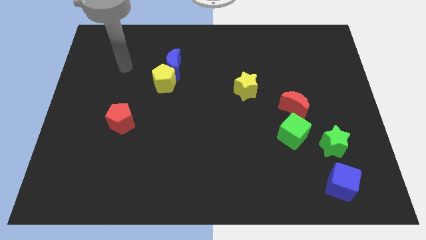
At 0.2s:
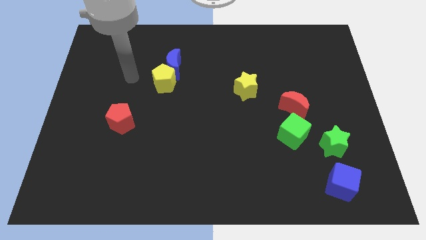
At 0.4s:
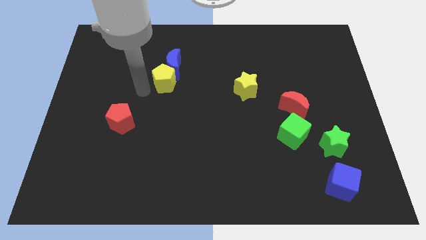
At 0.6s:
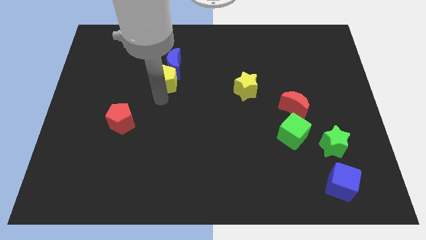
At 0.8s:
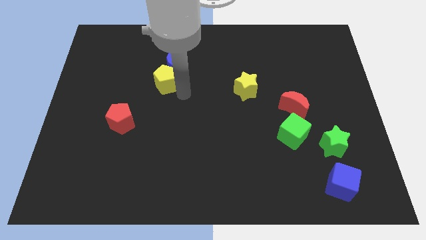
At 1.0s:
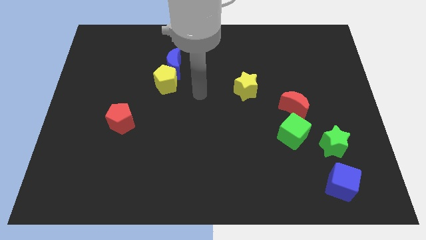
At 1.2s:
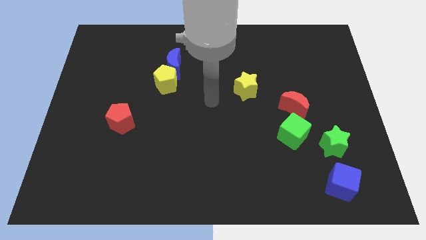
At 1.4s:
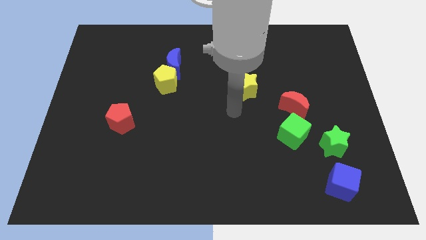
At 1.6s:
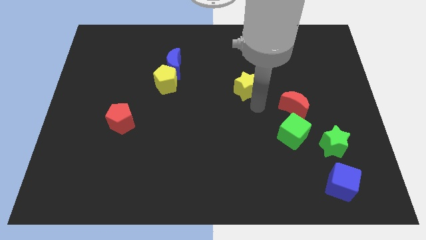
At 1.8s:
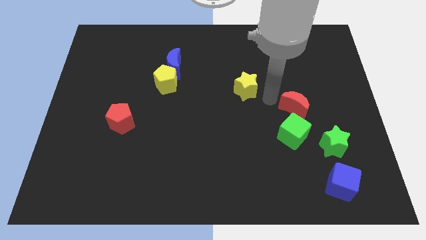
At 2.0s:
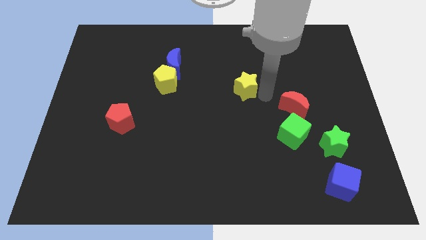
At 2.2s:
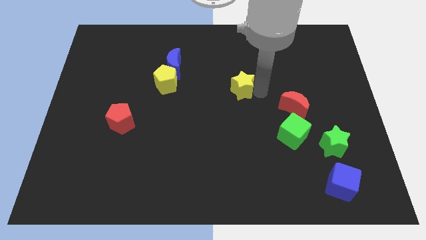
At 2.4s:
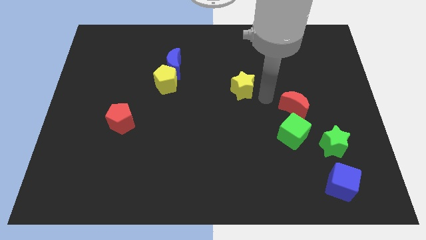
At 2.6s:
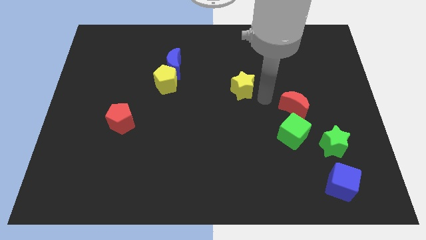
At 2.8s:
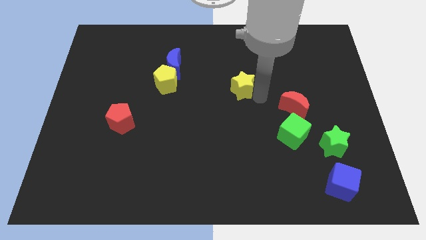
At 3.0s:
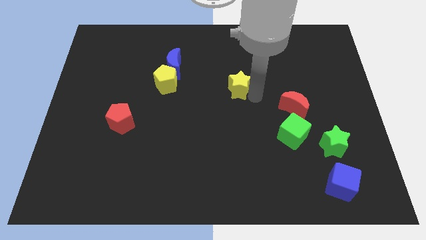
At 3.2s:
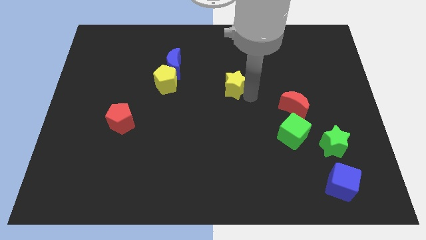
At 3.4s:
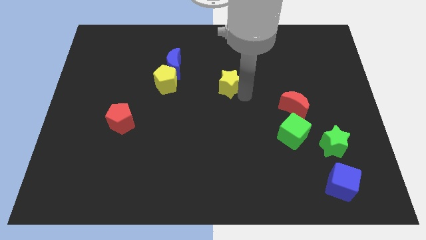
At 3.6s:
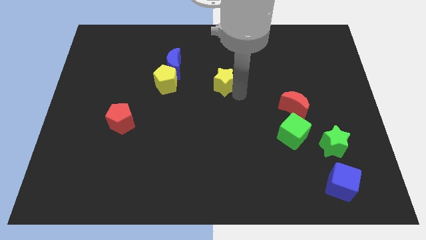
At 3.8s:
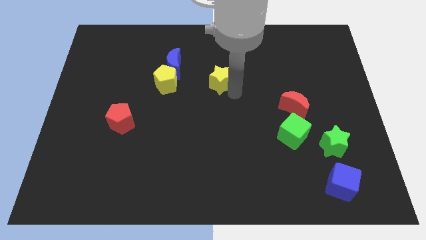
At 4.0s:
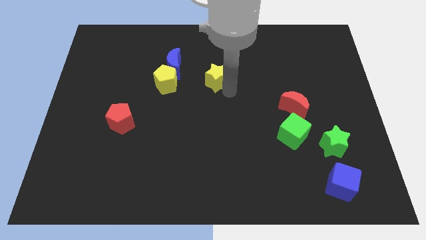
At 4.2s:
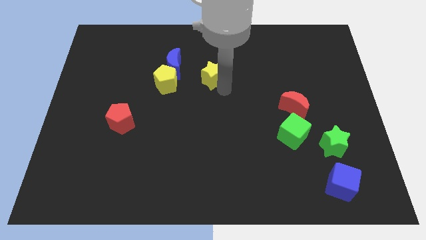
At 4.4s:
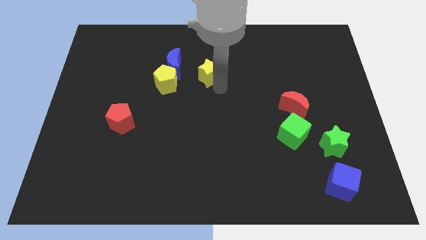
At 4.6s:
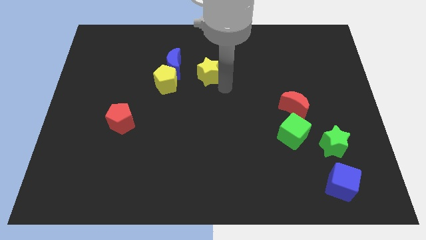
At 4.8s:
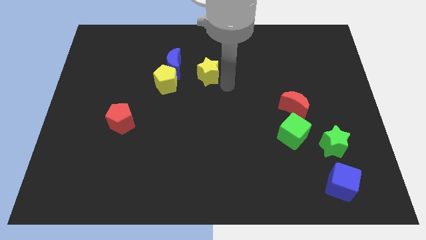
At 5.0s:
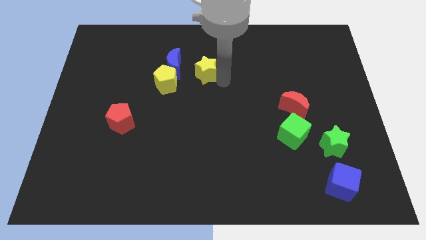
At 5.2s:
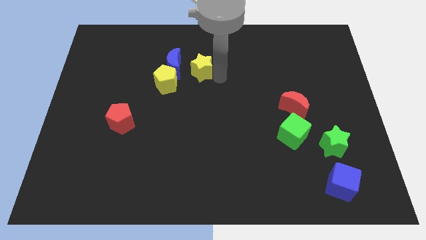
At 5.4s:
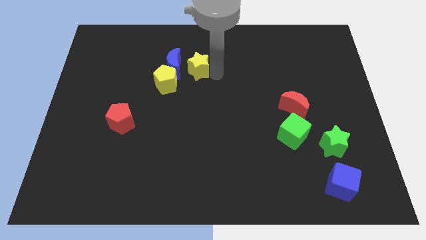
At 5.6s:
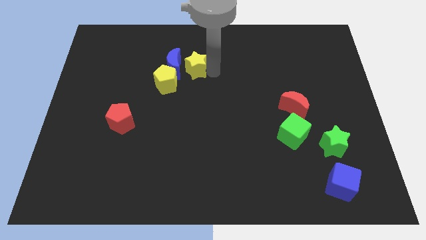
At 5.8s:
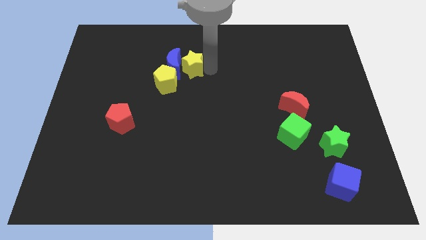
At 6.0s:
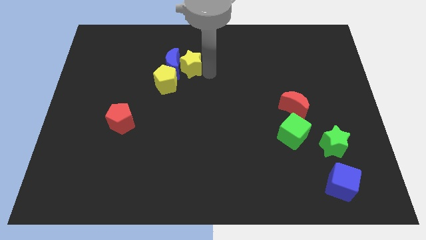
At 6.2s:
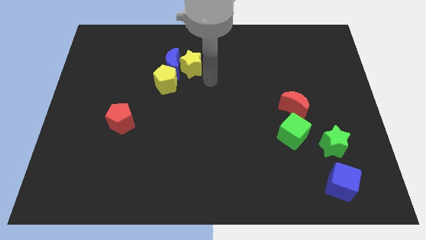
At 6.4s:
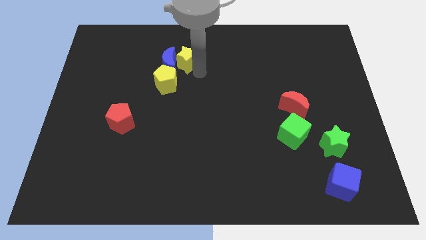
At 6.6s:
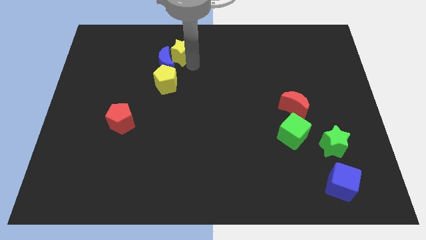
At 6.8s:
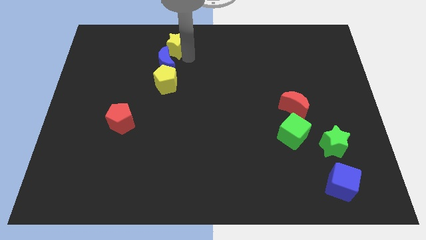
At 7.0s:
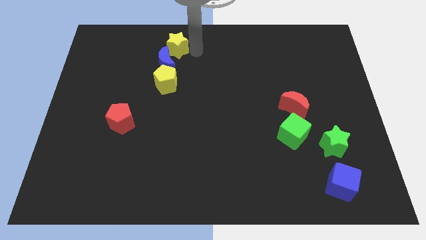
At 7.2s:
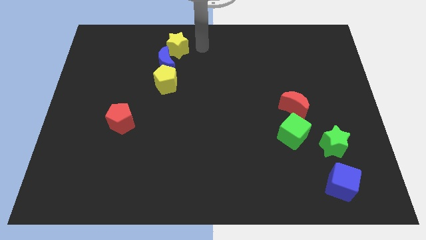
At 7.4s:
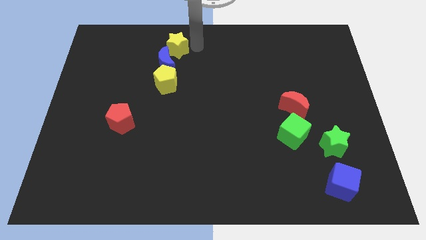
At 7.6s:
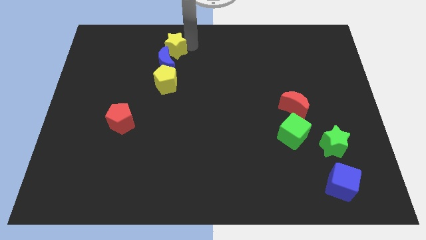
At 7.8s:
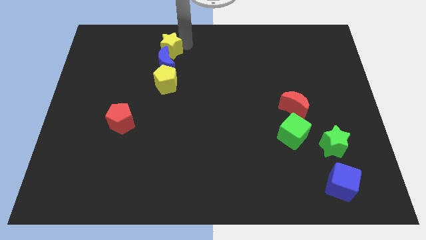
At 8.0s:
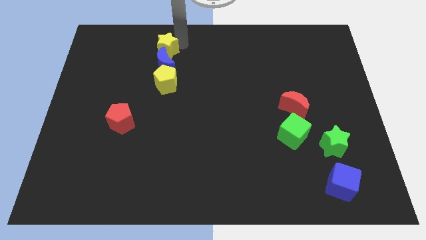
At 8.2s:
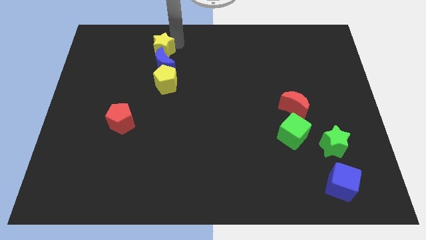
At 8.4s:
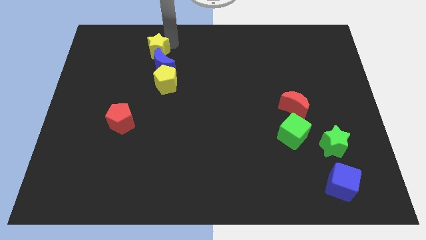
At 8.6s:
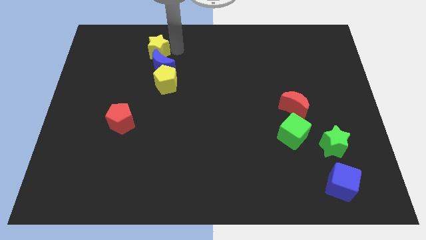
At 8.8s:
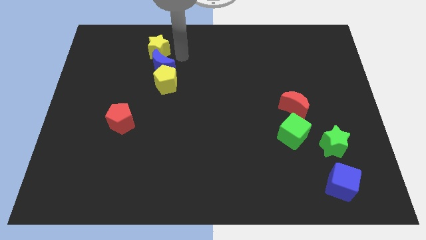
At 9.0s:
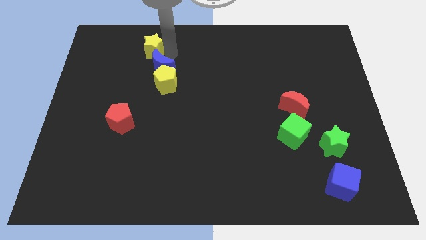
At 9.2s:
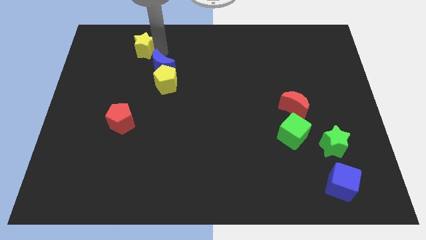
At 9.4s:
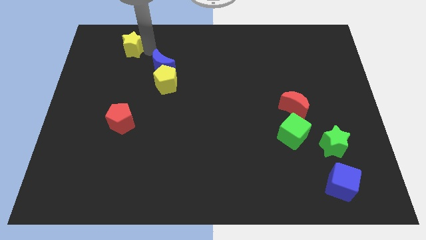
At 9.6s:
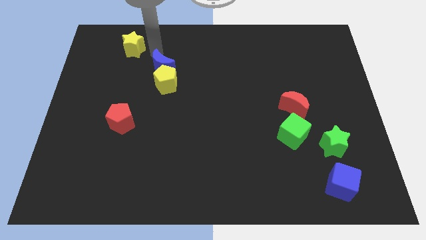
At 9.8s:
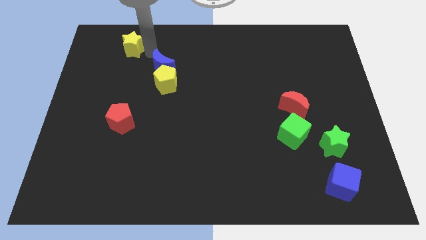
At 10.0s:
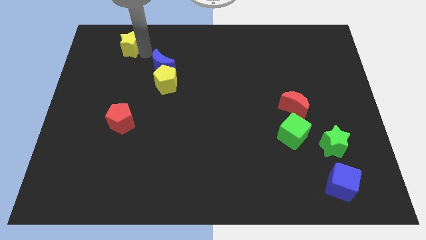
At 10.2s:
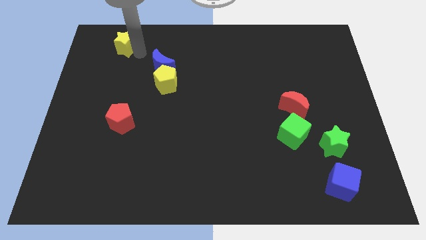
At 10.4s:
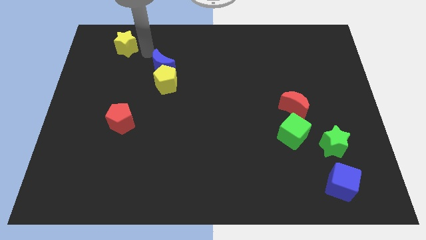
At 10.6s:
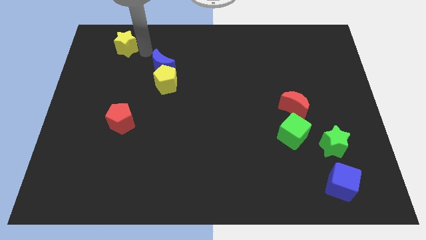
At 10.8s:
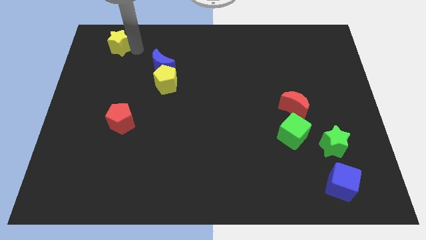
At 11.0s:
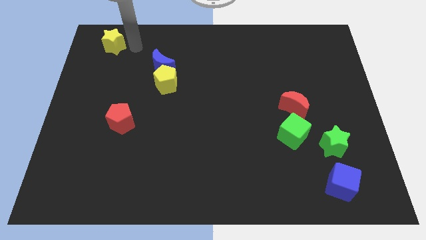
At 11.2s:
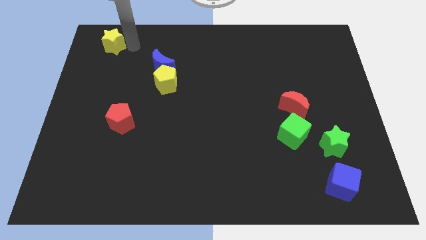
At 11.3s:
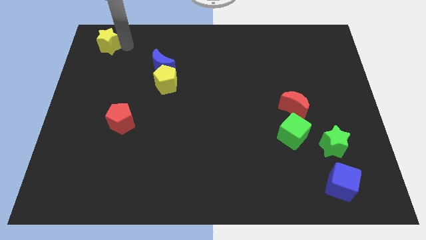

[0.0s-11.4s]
slide the yellow star to the upper left corner

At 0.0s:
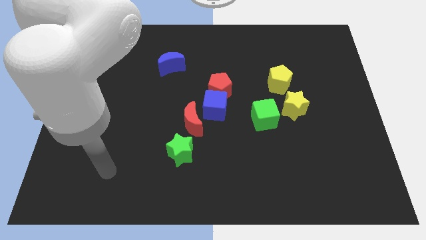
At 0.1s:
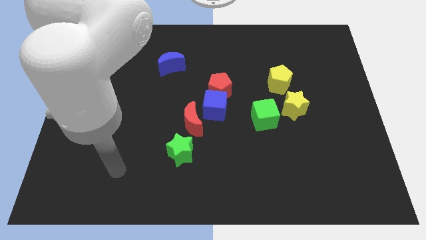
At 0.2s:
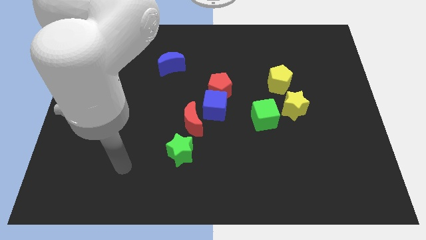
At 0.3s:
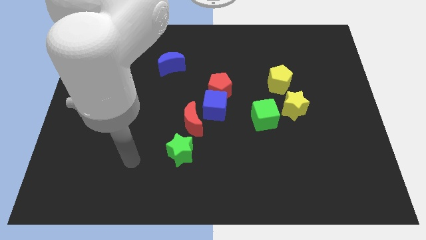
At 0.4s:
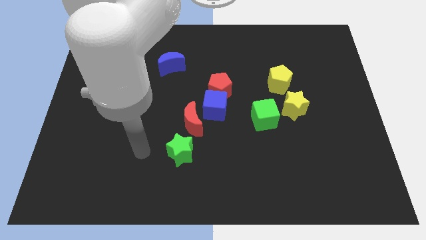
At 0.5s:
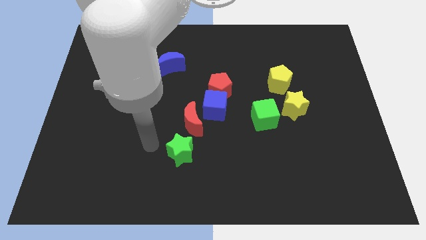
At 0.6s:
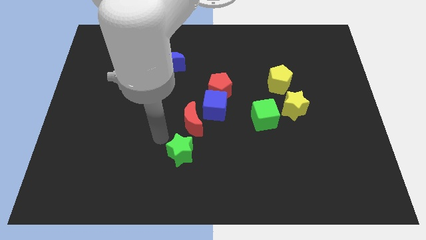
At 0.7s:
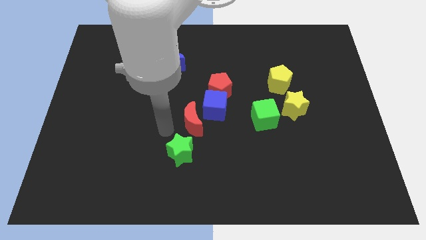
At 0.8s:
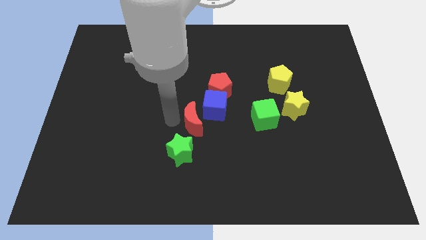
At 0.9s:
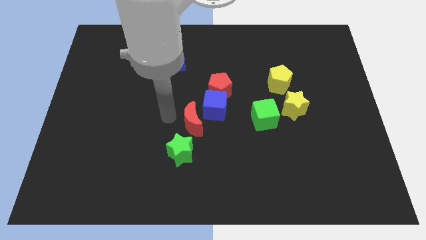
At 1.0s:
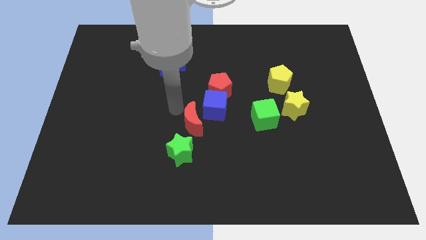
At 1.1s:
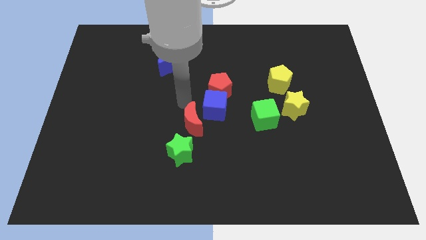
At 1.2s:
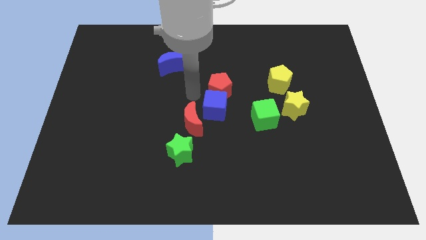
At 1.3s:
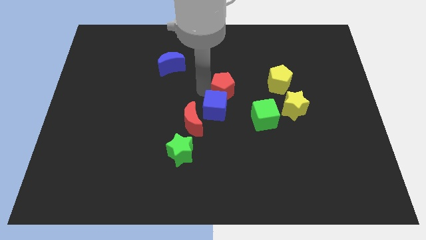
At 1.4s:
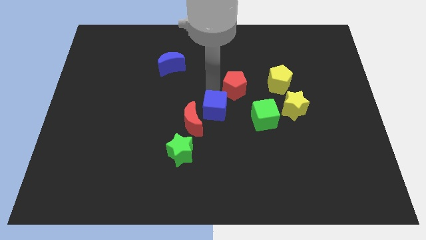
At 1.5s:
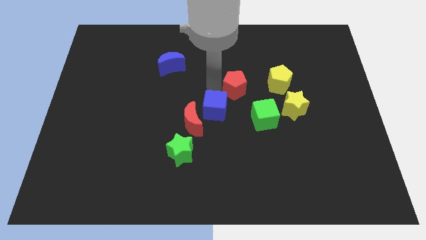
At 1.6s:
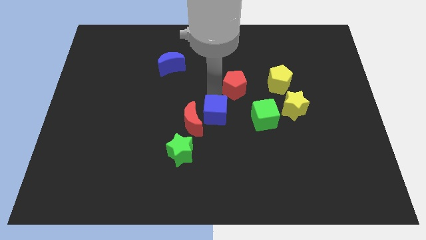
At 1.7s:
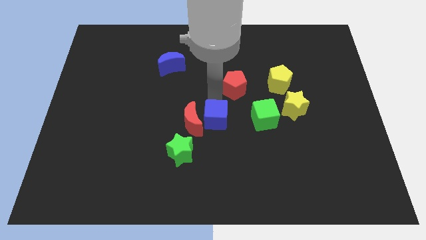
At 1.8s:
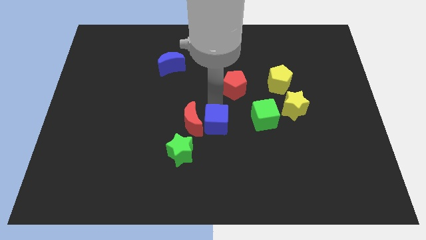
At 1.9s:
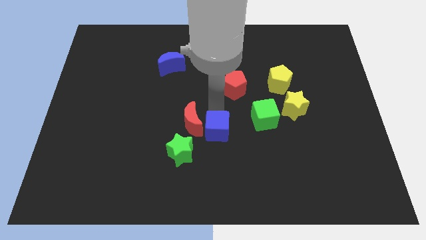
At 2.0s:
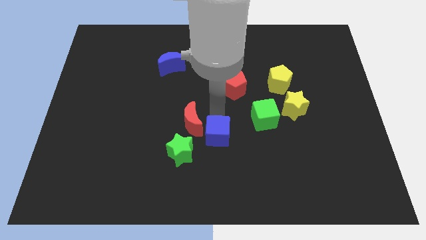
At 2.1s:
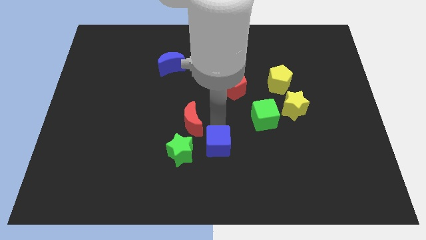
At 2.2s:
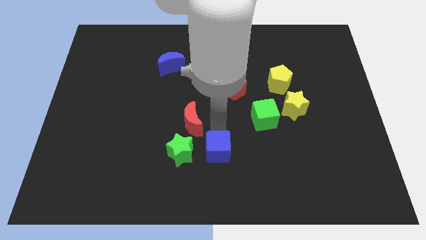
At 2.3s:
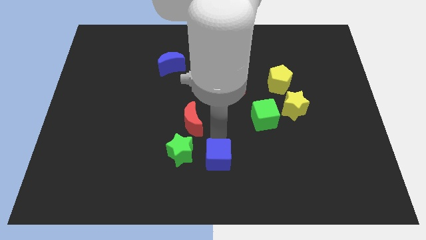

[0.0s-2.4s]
push the blue cube to the bottom
